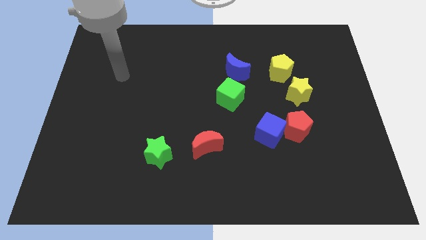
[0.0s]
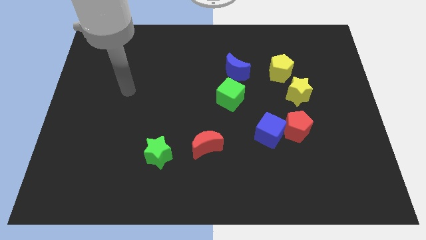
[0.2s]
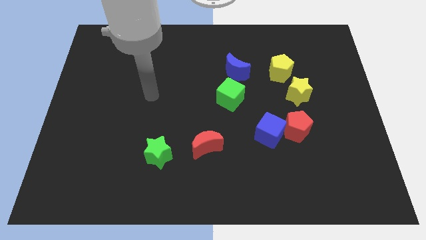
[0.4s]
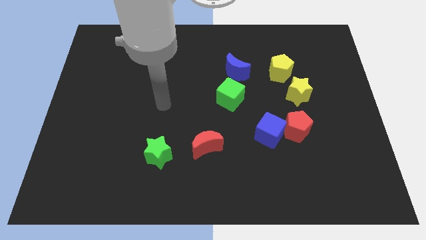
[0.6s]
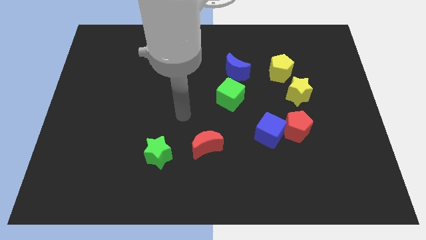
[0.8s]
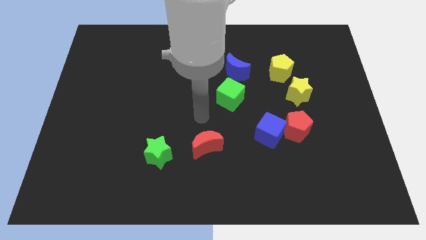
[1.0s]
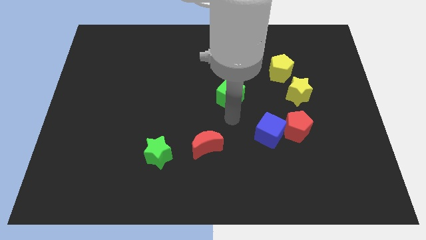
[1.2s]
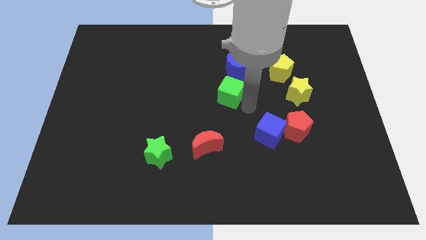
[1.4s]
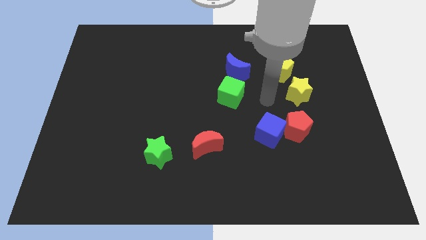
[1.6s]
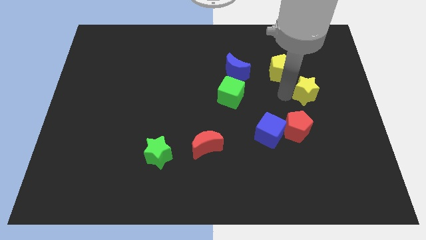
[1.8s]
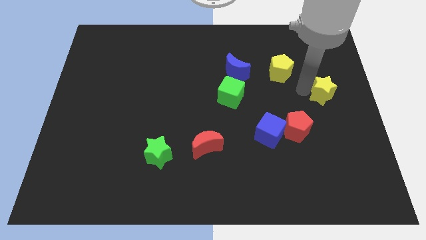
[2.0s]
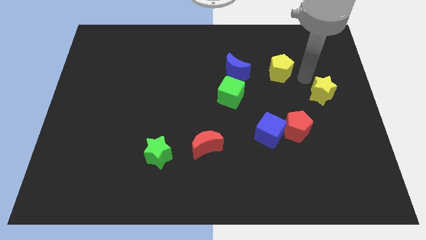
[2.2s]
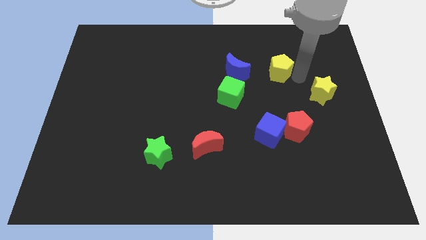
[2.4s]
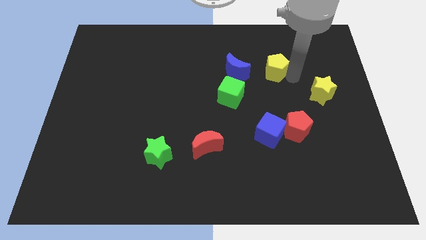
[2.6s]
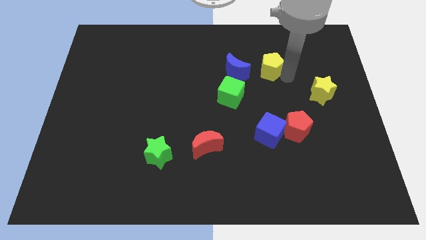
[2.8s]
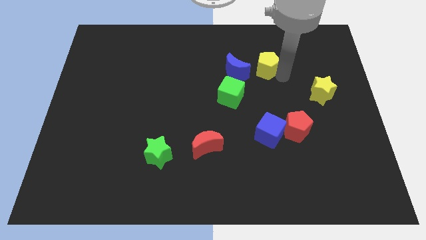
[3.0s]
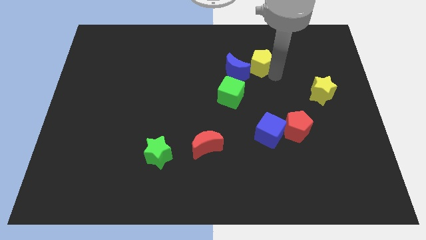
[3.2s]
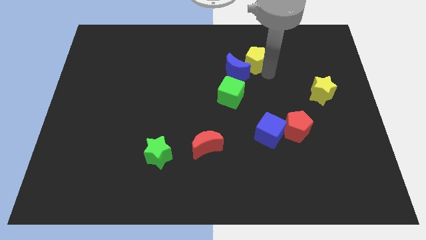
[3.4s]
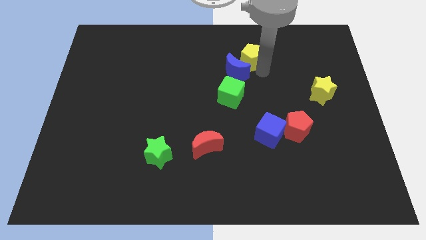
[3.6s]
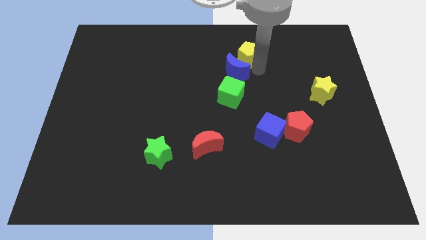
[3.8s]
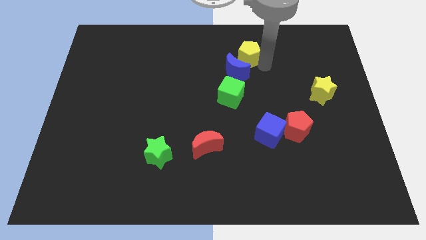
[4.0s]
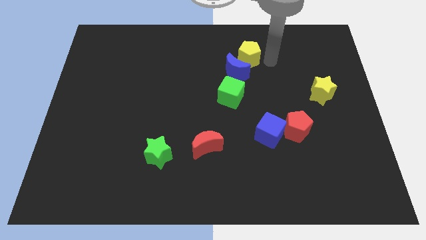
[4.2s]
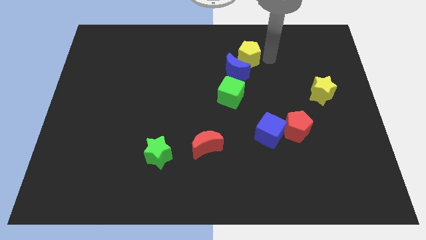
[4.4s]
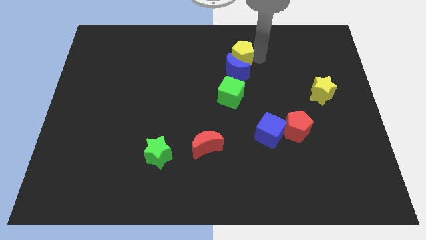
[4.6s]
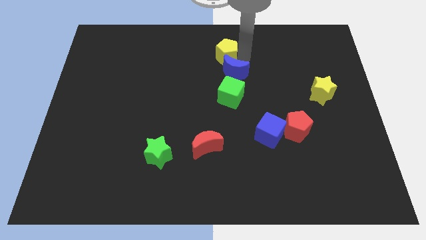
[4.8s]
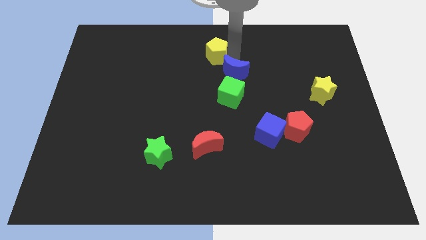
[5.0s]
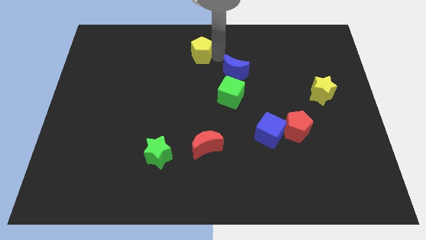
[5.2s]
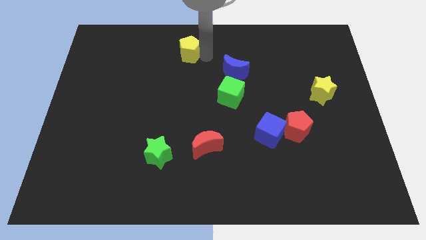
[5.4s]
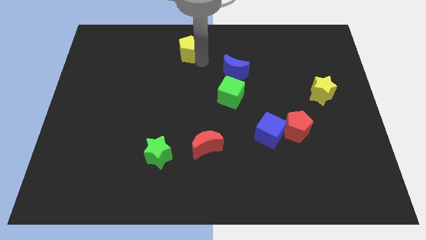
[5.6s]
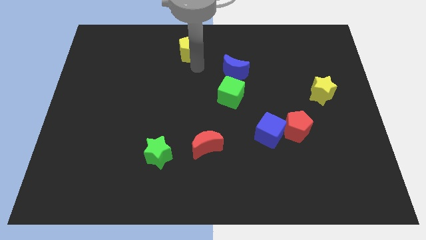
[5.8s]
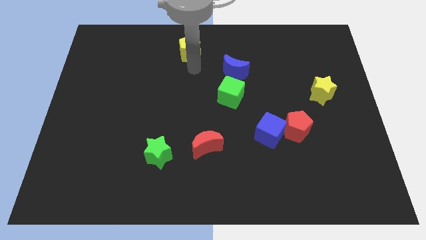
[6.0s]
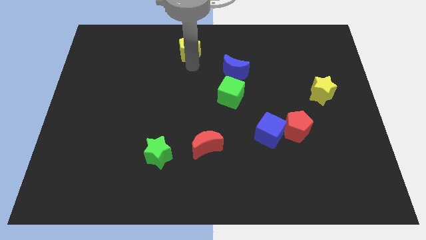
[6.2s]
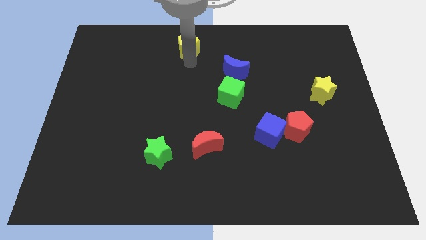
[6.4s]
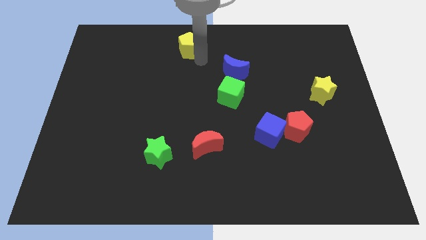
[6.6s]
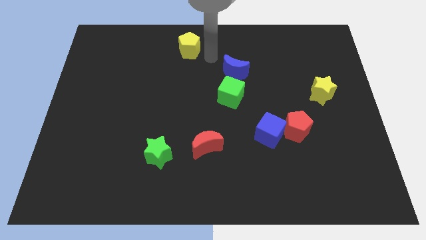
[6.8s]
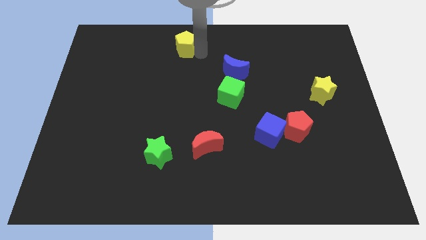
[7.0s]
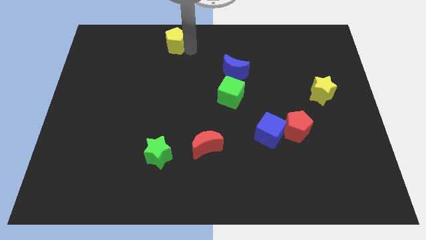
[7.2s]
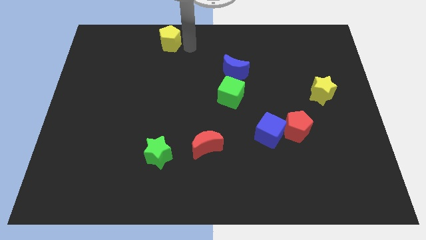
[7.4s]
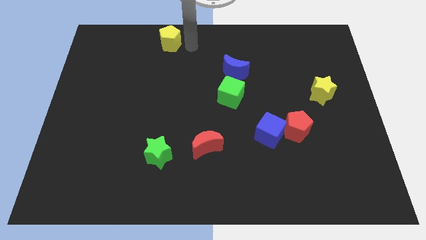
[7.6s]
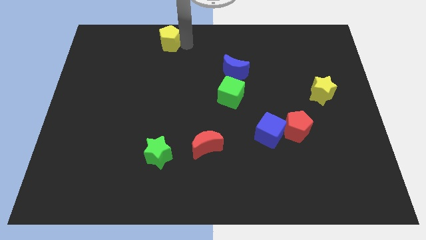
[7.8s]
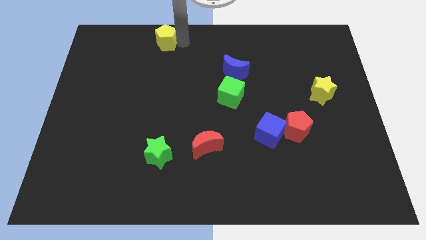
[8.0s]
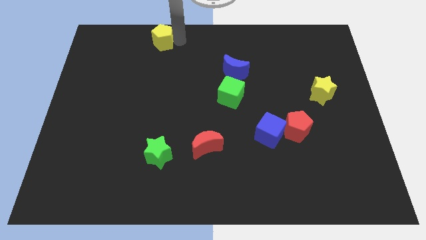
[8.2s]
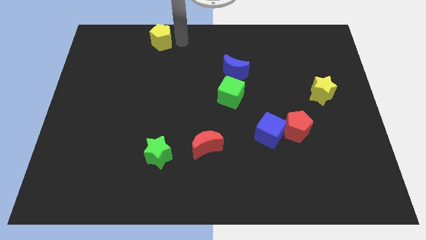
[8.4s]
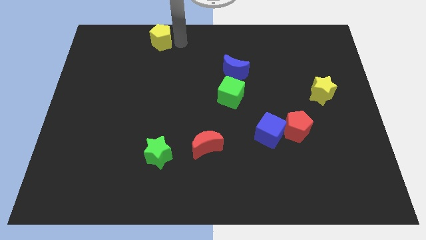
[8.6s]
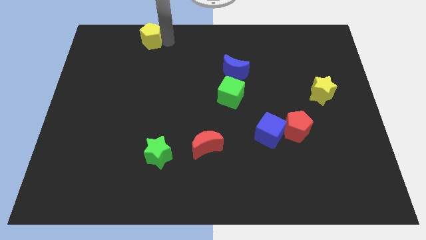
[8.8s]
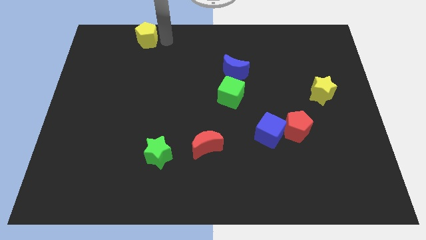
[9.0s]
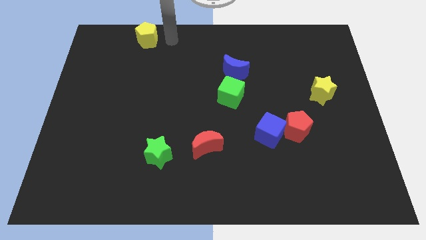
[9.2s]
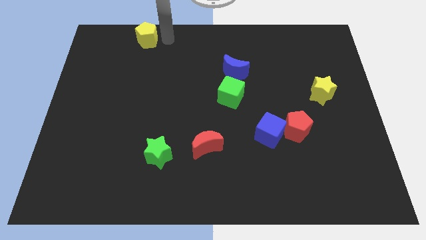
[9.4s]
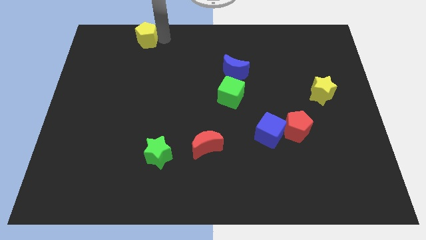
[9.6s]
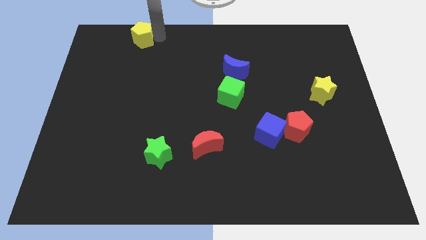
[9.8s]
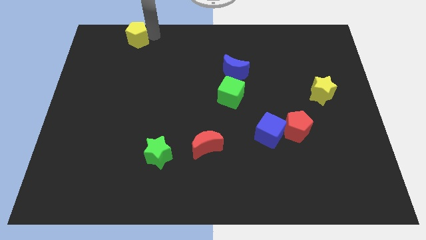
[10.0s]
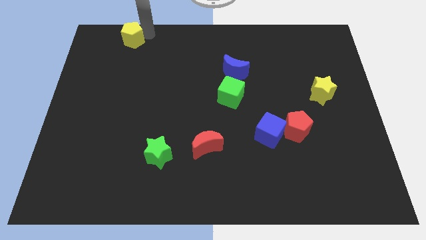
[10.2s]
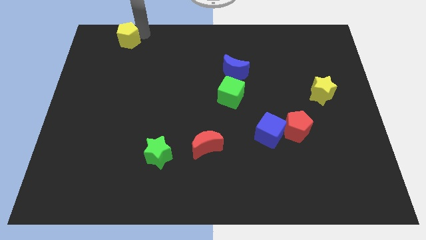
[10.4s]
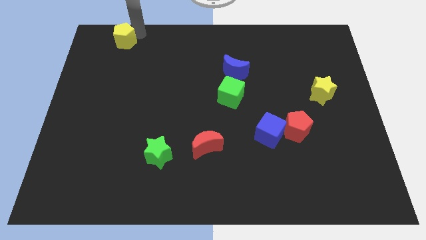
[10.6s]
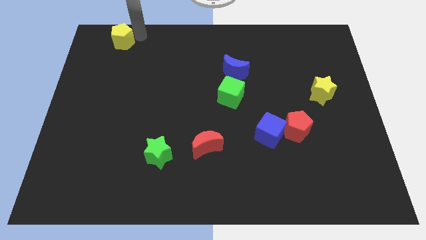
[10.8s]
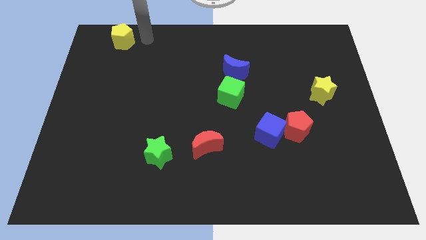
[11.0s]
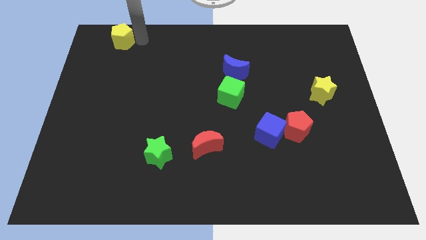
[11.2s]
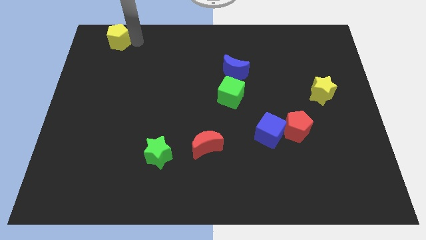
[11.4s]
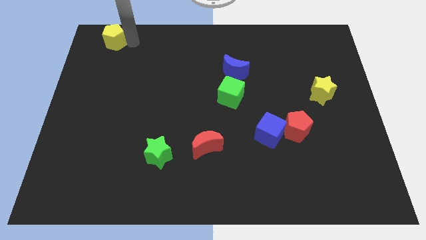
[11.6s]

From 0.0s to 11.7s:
push the yellow pentagon to the top left of the board

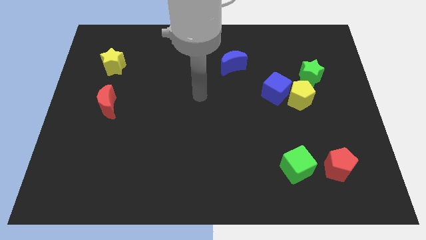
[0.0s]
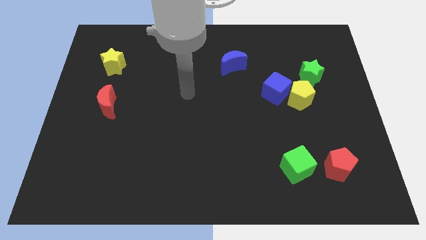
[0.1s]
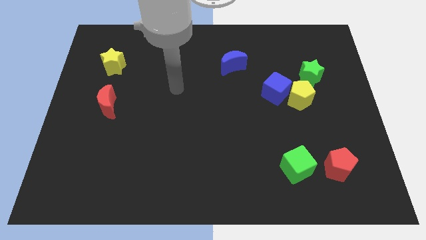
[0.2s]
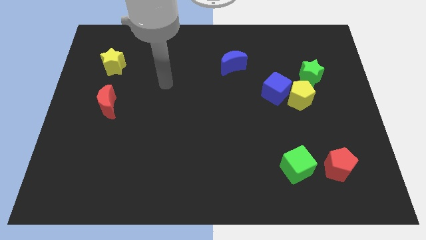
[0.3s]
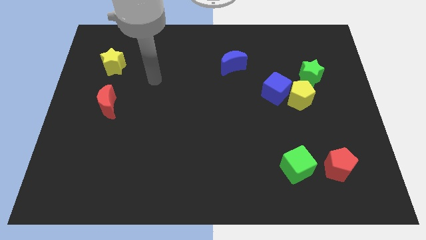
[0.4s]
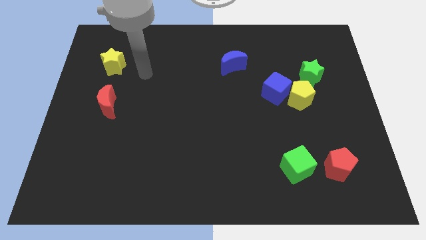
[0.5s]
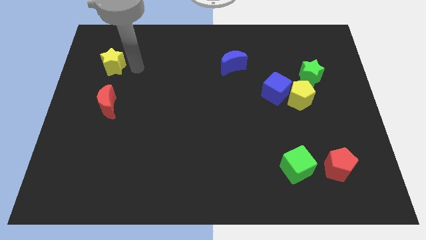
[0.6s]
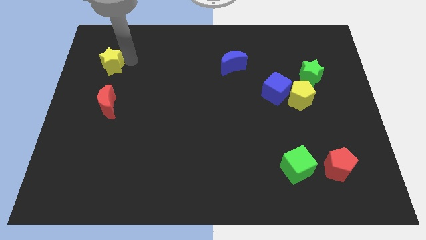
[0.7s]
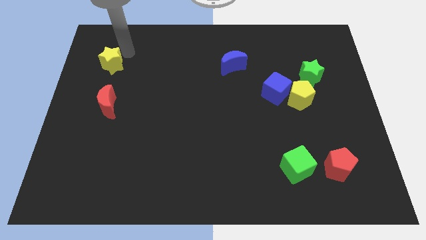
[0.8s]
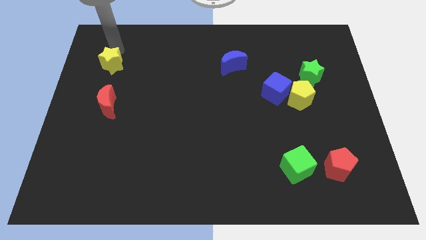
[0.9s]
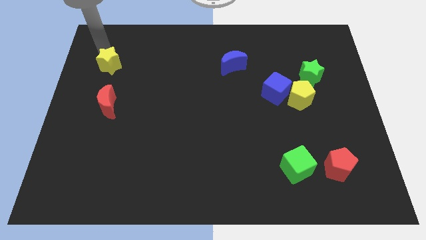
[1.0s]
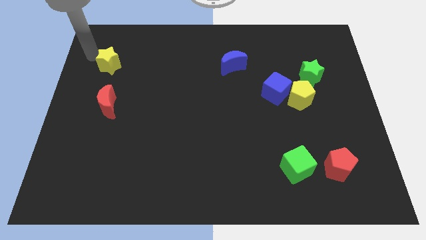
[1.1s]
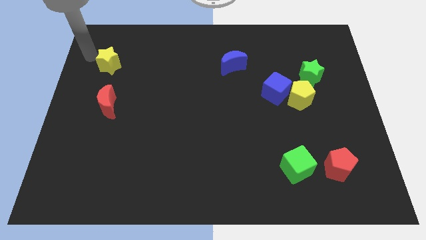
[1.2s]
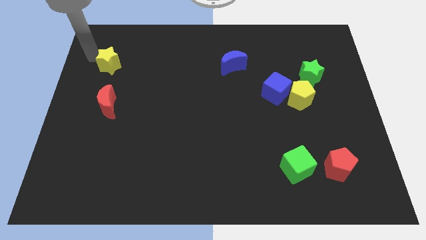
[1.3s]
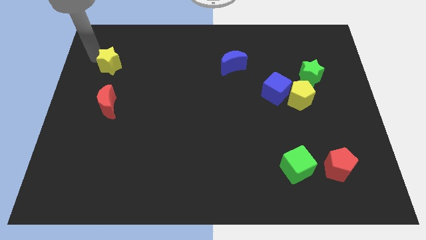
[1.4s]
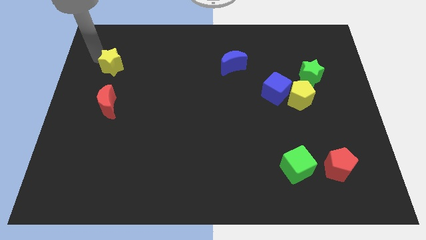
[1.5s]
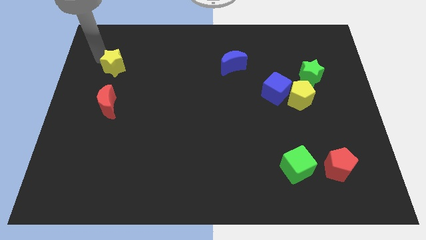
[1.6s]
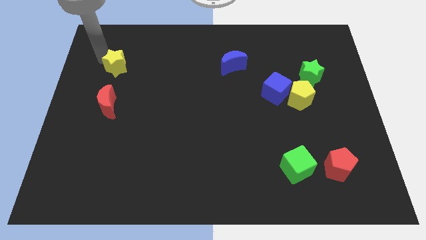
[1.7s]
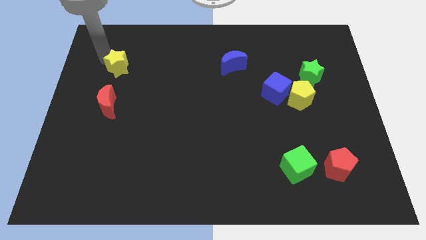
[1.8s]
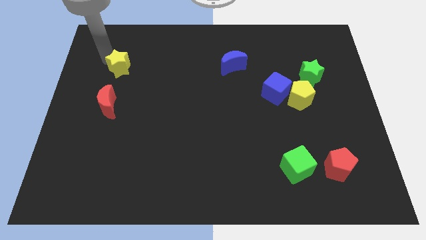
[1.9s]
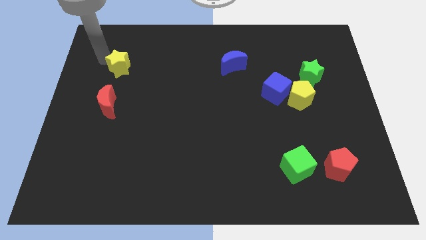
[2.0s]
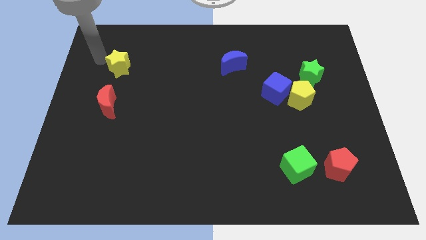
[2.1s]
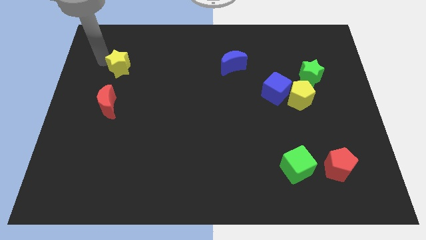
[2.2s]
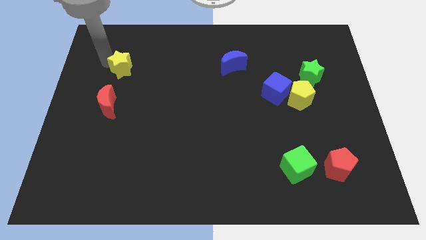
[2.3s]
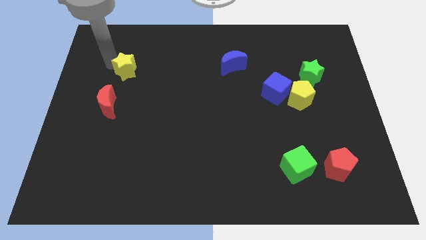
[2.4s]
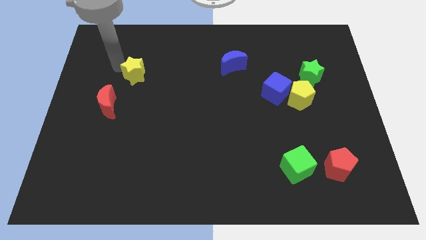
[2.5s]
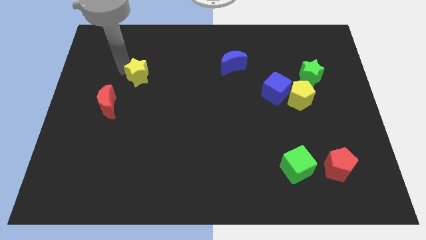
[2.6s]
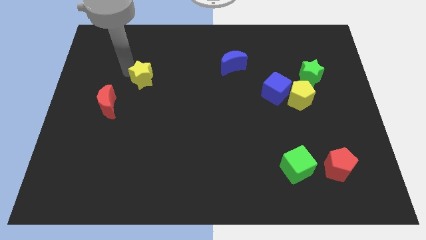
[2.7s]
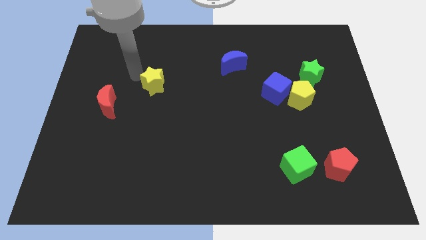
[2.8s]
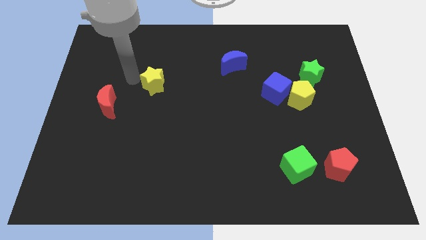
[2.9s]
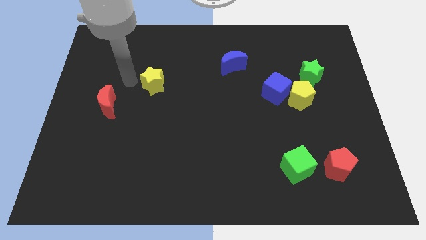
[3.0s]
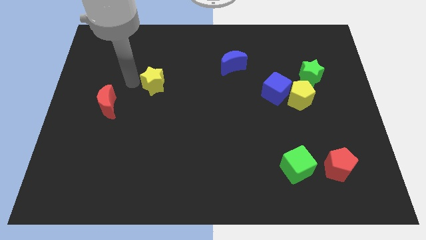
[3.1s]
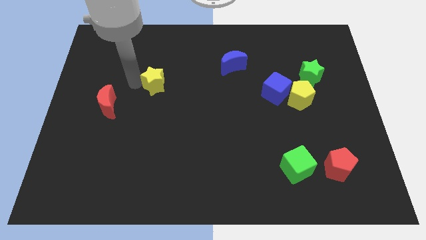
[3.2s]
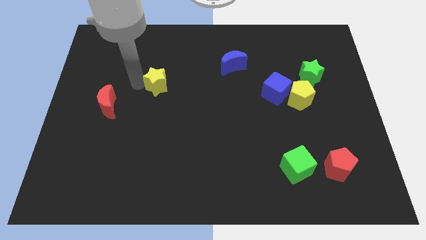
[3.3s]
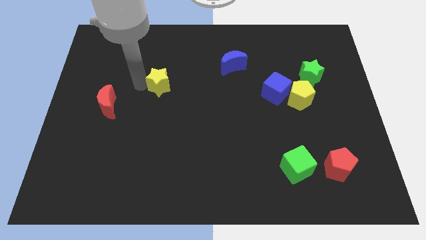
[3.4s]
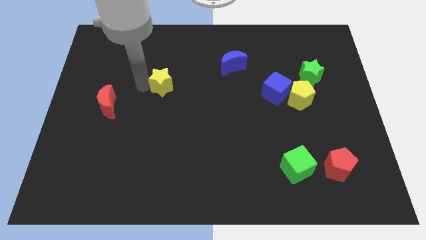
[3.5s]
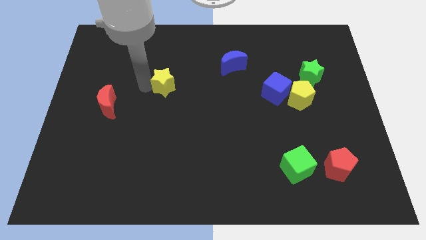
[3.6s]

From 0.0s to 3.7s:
slide the yellow star to the center of the board
